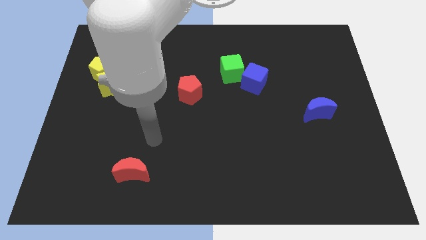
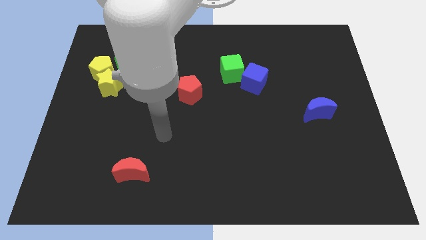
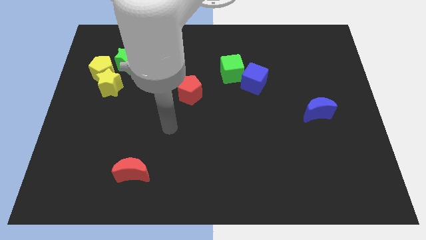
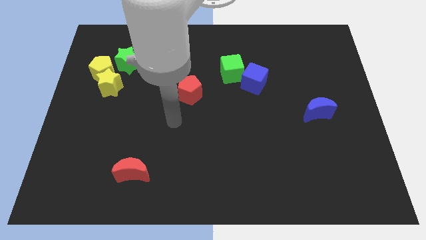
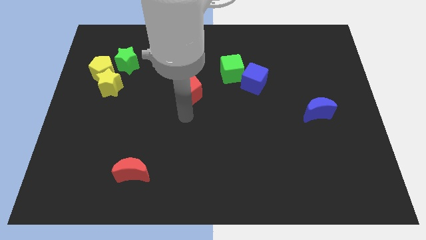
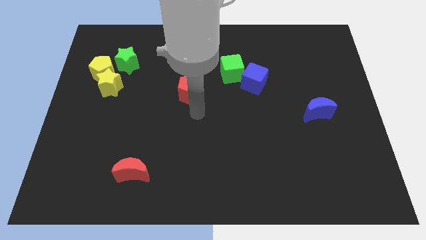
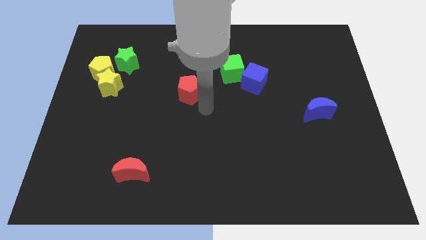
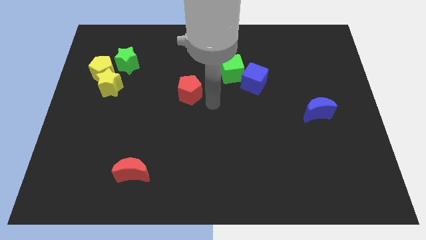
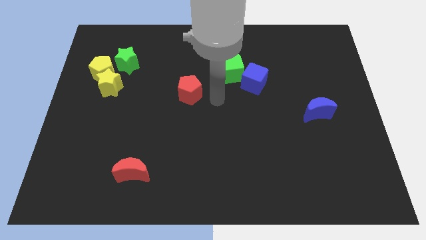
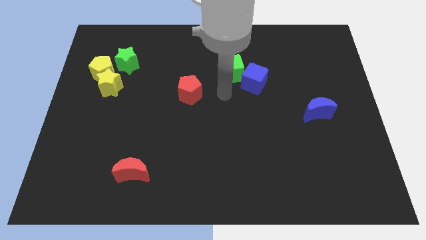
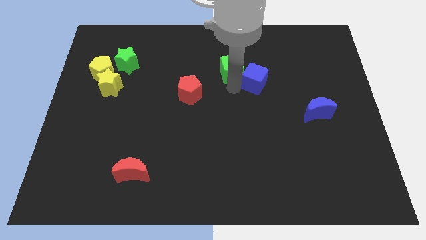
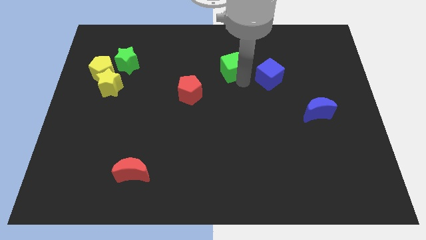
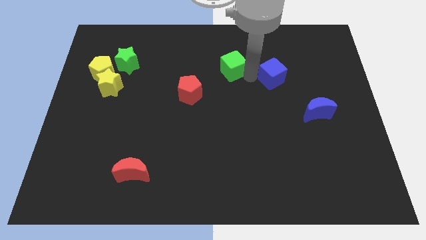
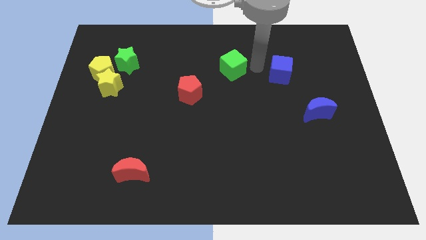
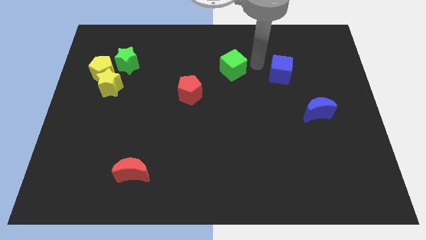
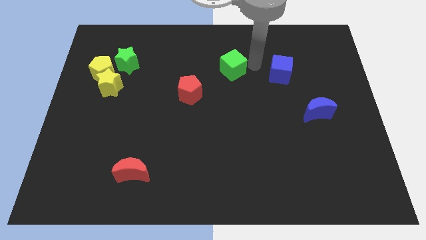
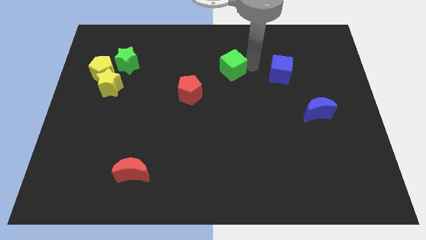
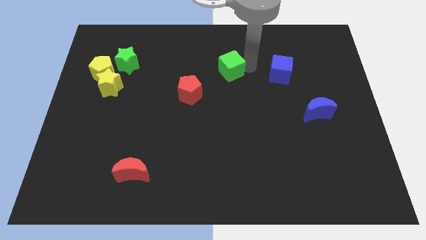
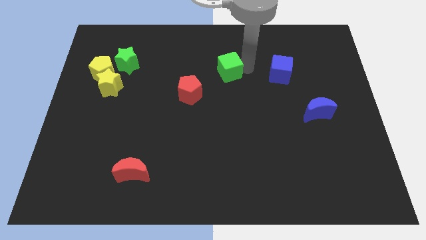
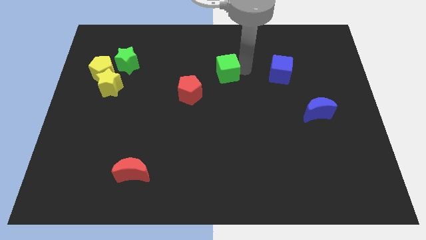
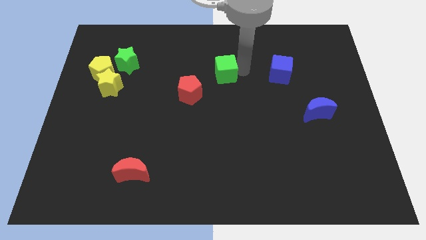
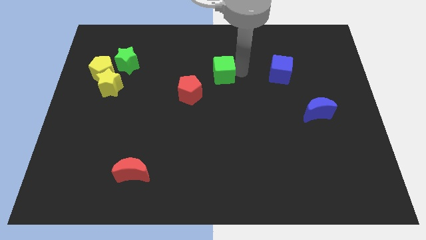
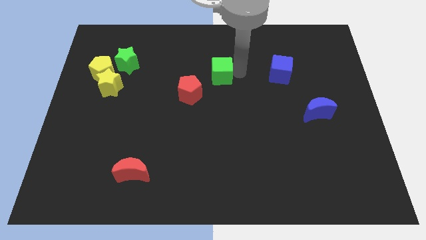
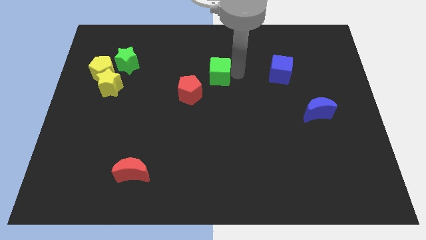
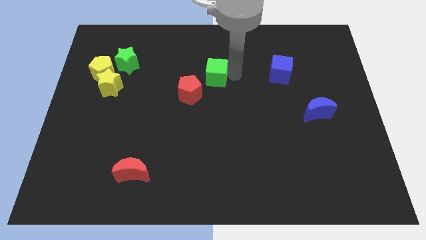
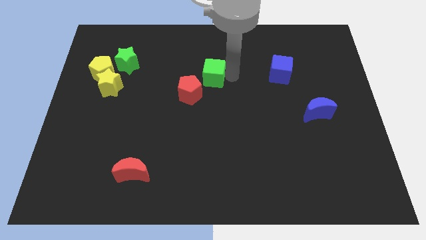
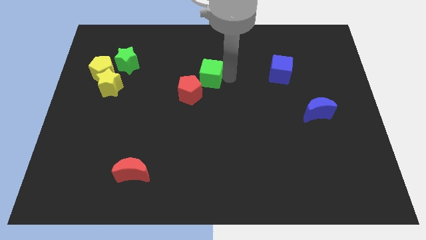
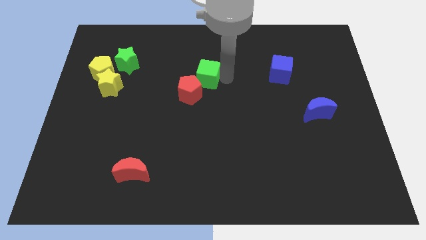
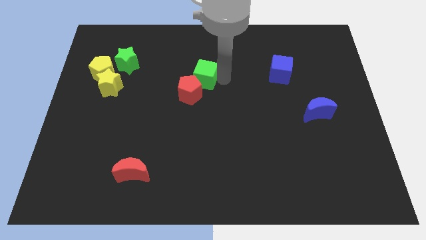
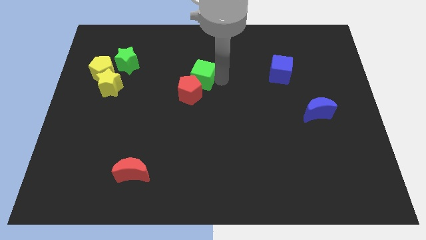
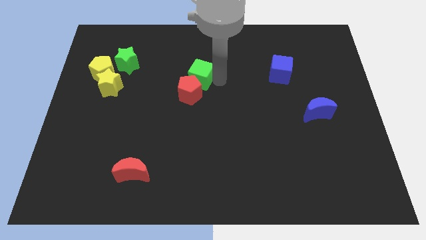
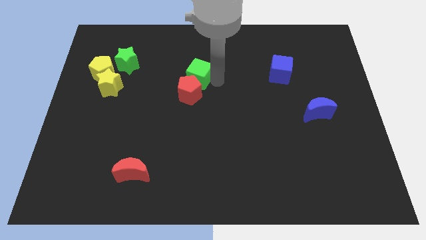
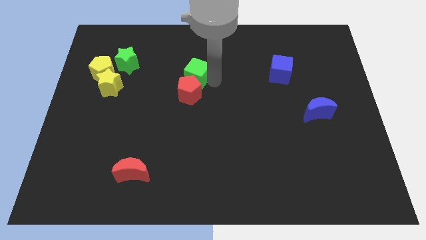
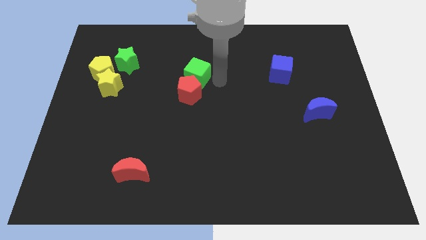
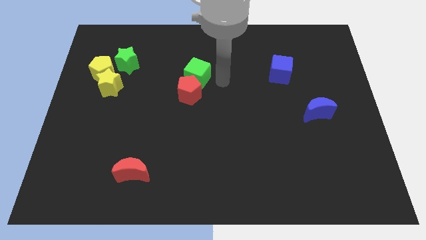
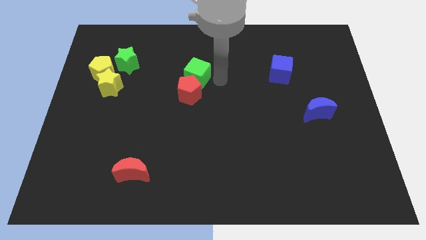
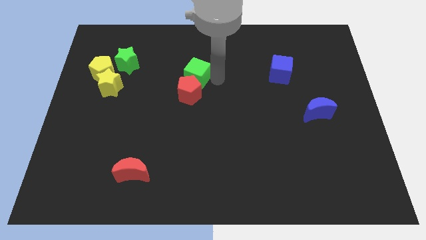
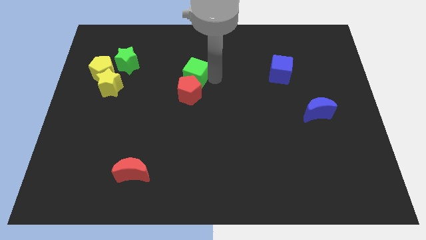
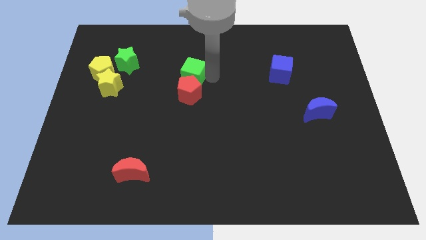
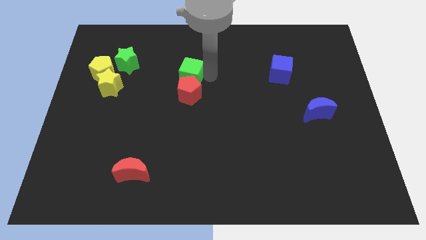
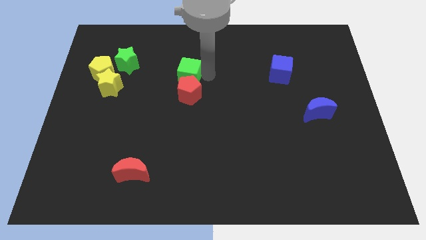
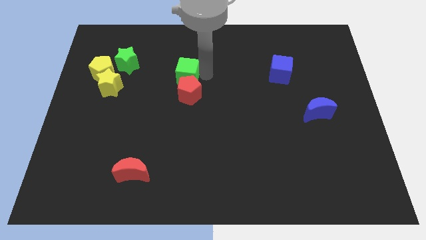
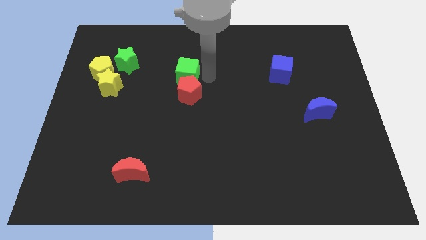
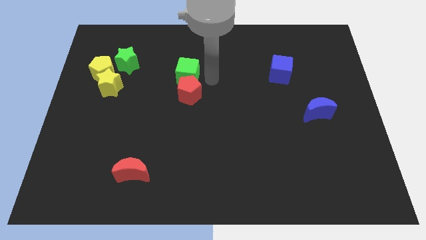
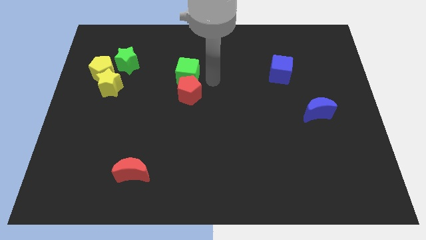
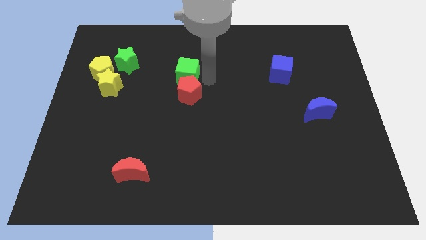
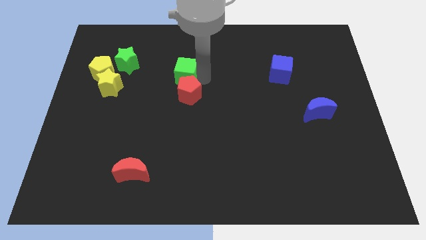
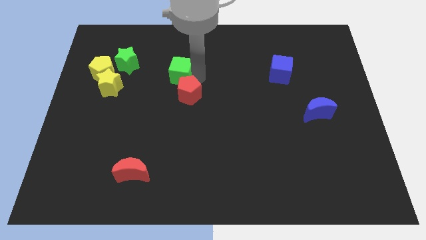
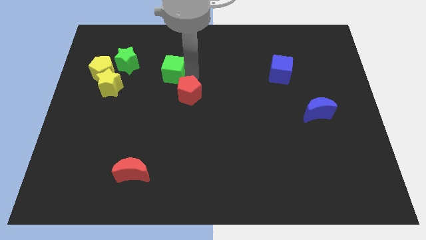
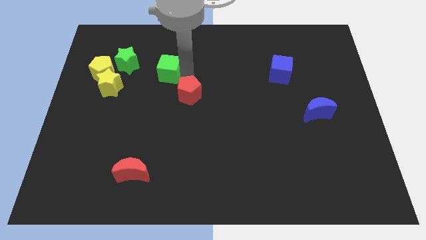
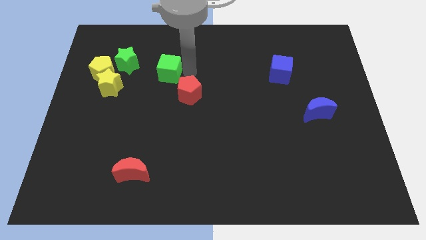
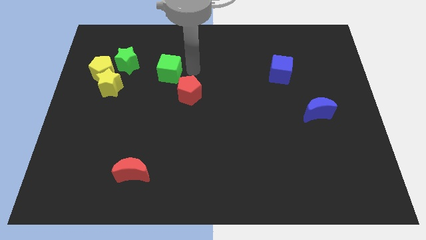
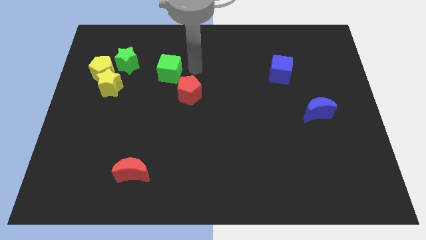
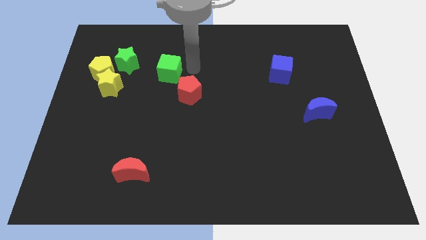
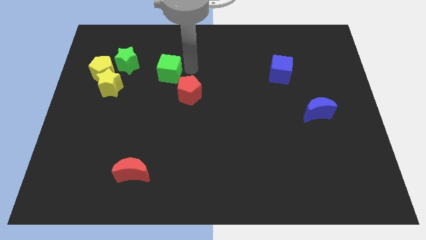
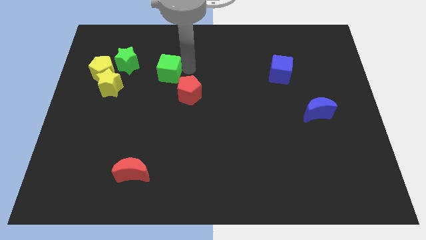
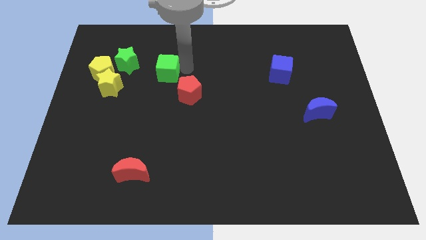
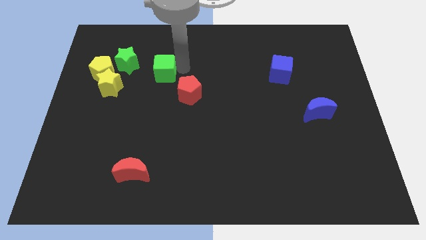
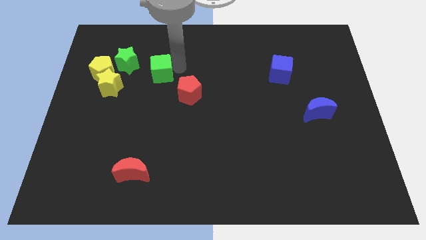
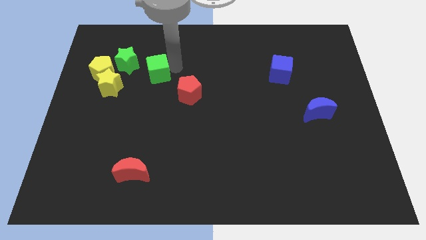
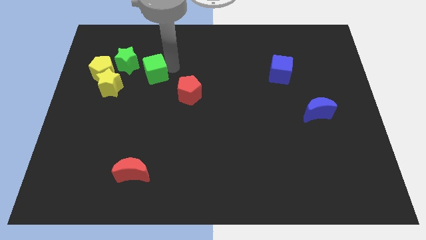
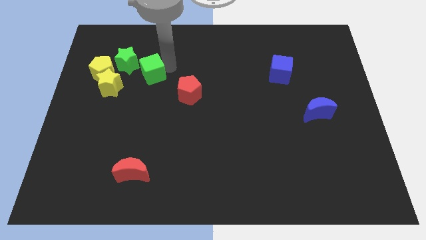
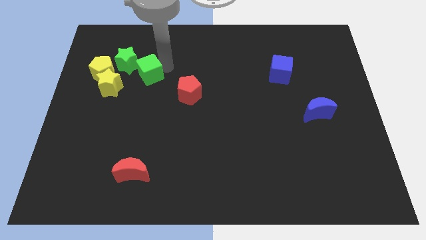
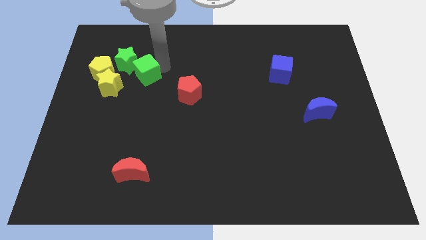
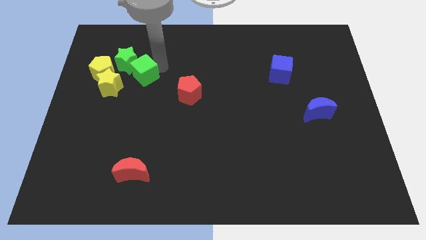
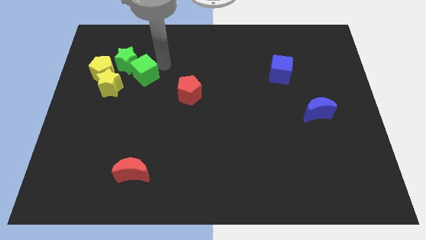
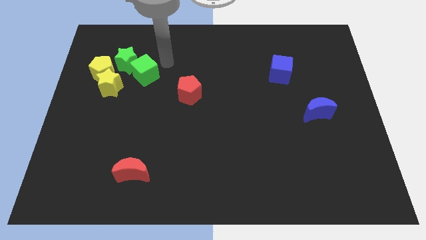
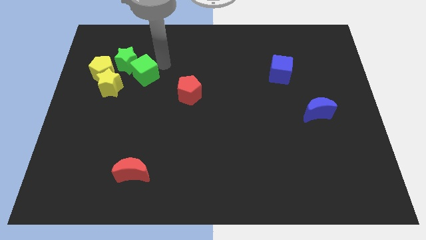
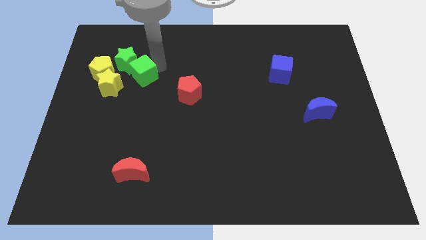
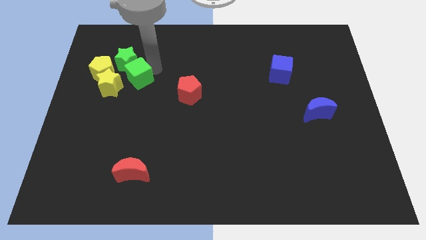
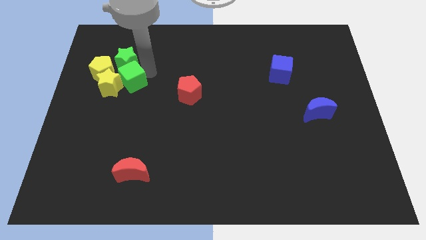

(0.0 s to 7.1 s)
put the green cube next to the yellow star

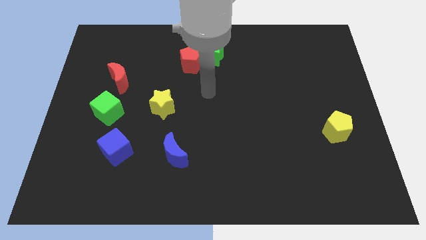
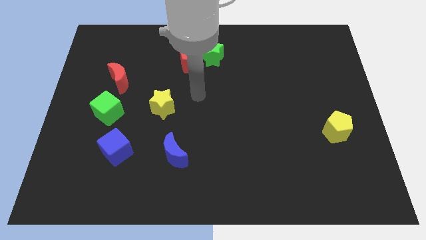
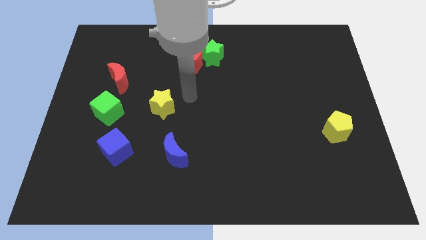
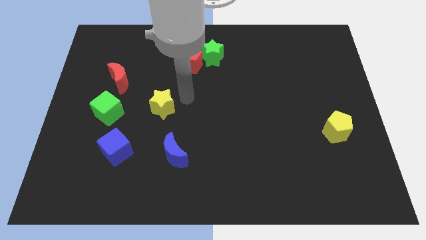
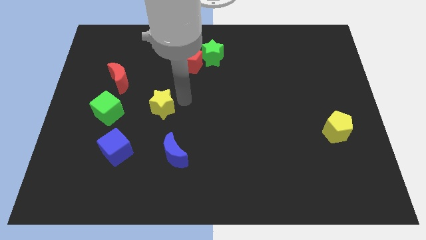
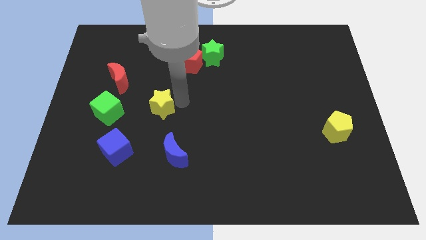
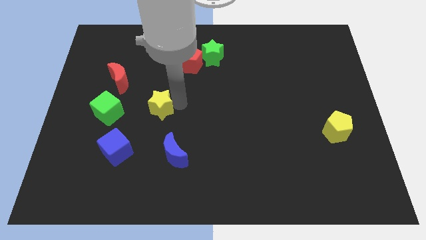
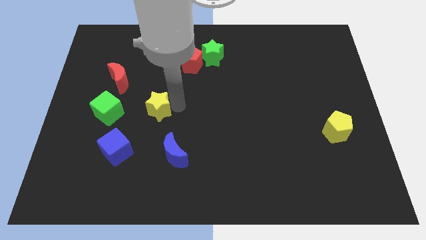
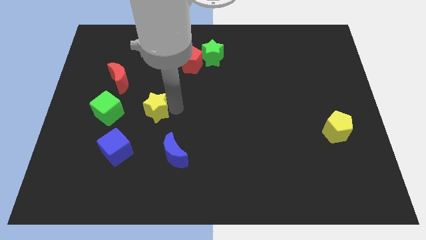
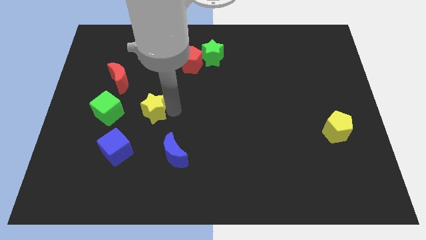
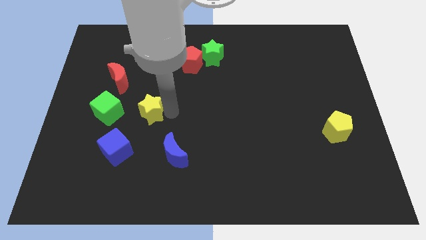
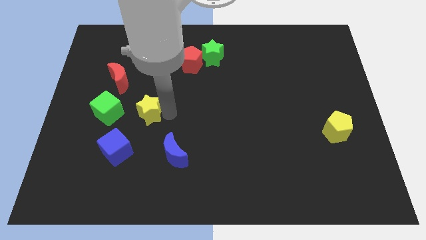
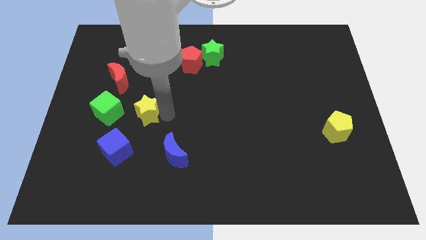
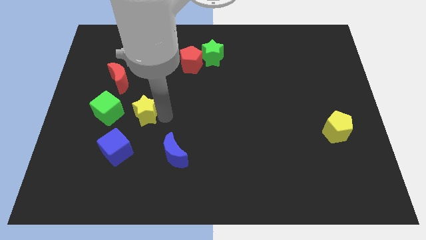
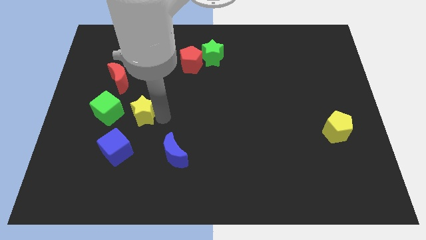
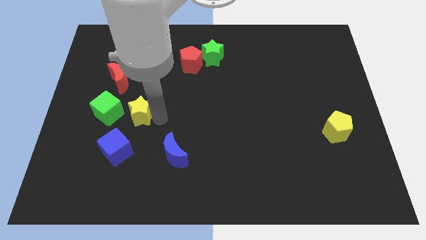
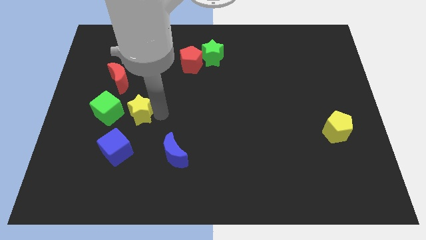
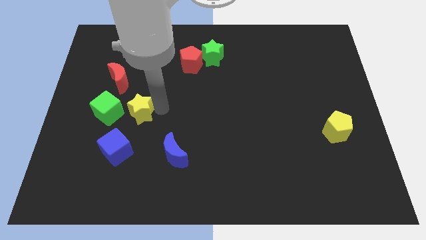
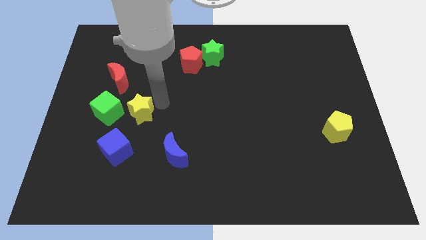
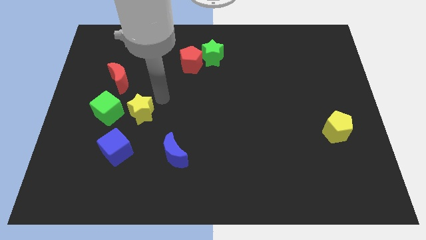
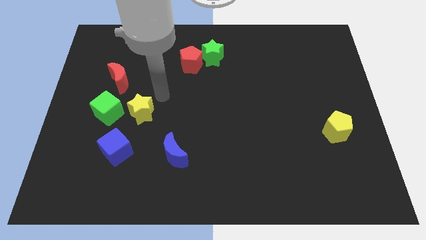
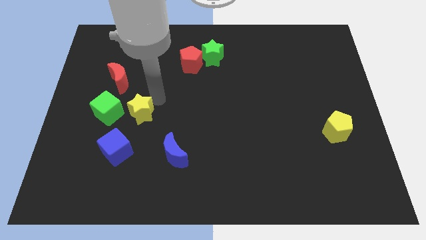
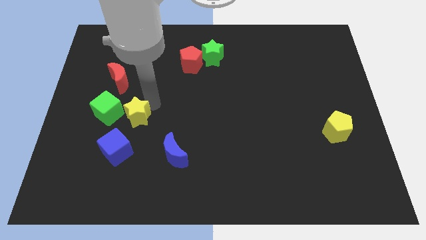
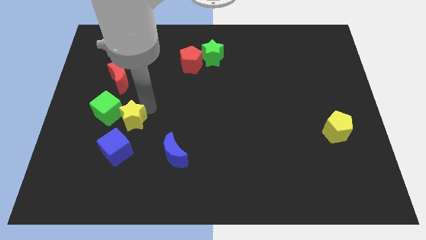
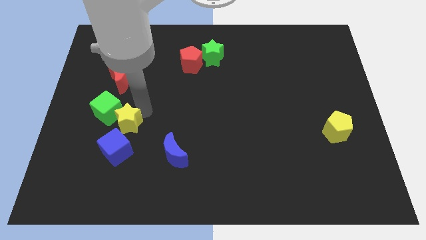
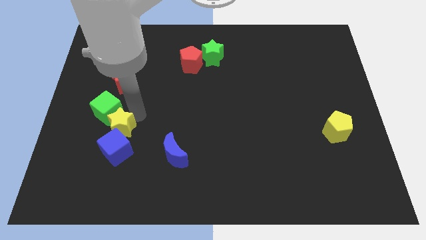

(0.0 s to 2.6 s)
push the yellow star close to the blue cube
